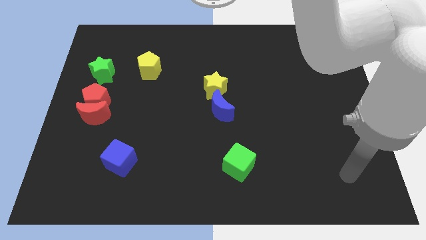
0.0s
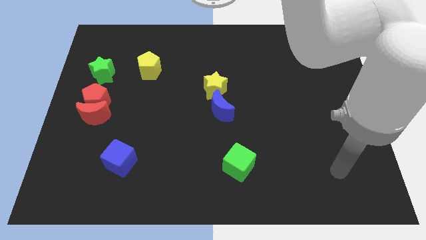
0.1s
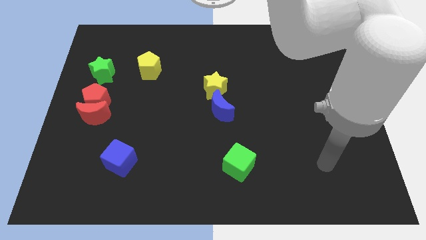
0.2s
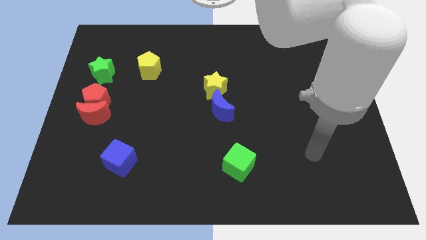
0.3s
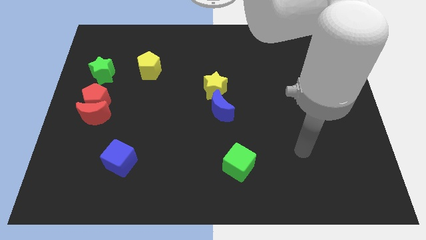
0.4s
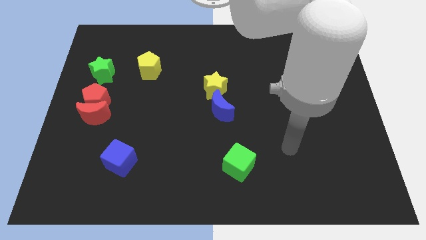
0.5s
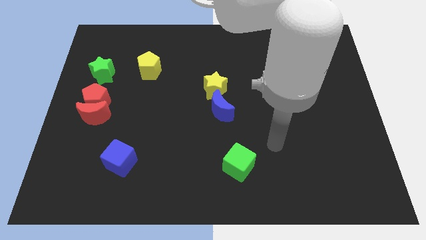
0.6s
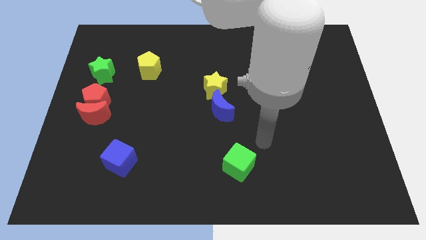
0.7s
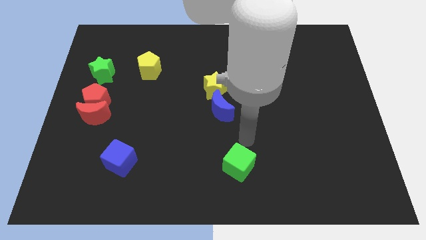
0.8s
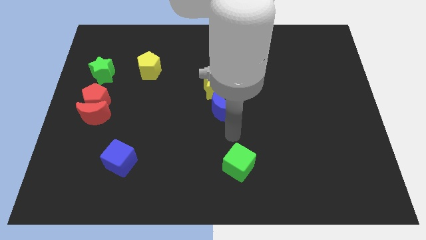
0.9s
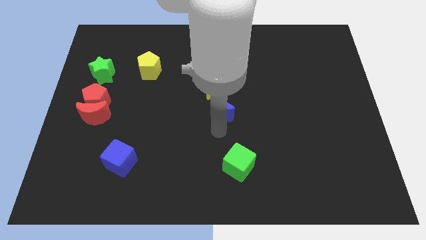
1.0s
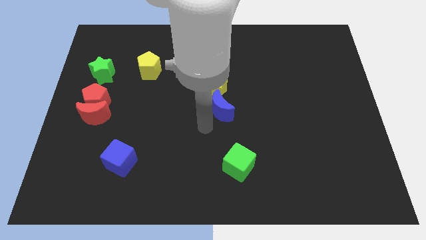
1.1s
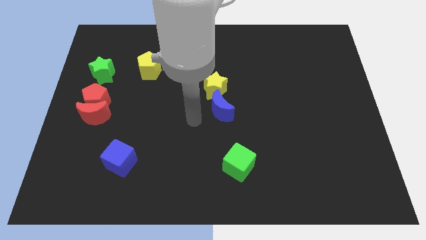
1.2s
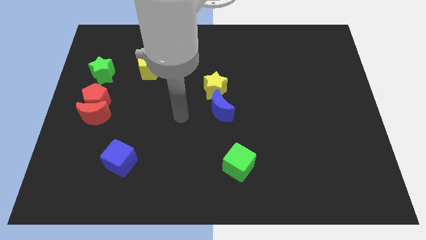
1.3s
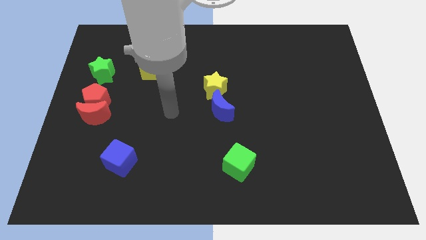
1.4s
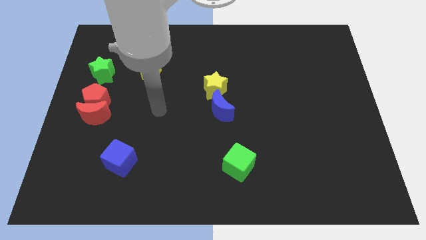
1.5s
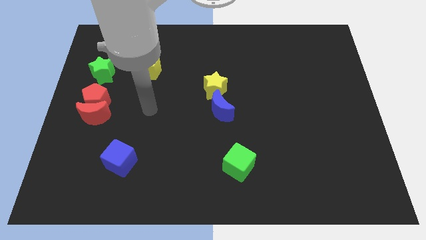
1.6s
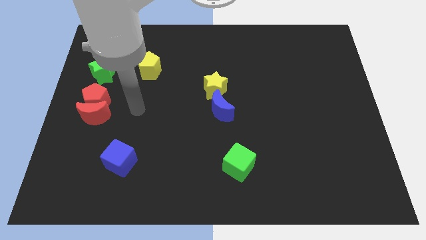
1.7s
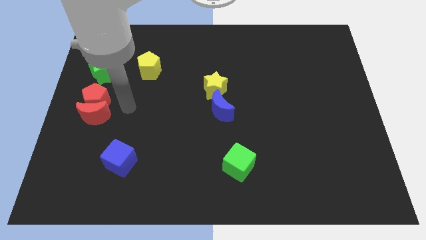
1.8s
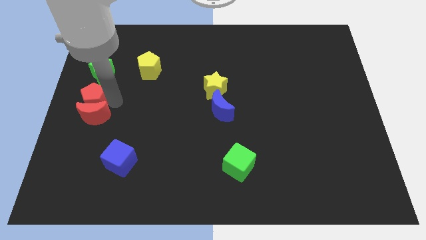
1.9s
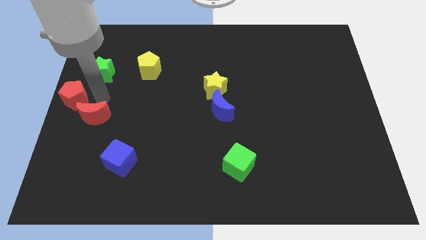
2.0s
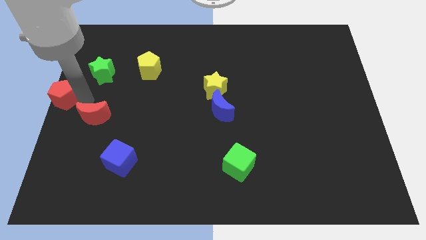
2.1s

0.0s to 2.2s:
separate the red moon from the red pentagon

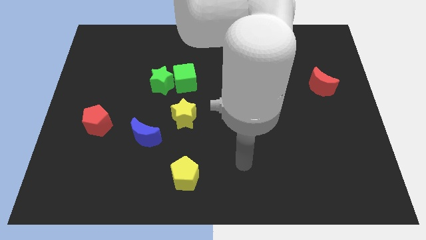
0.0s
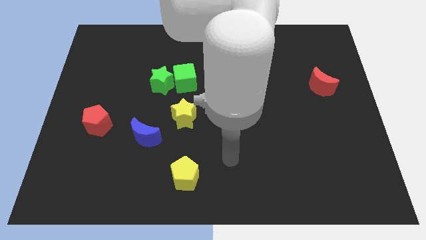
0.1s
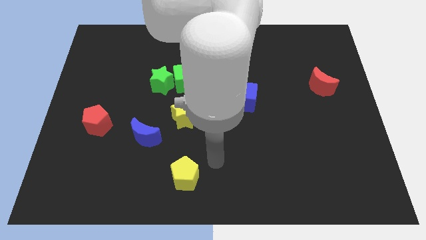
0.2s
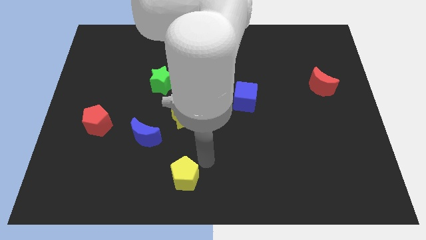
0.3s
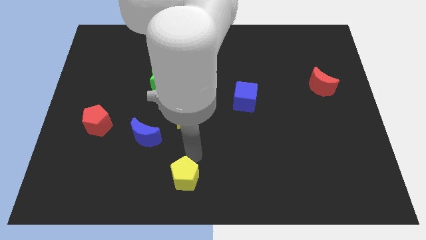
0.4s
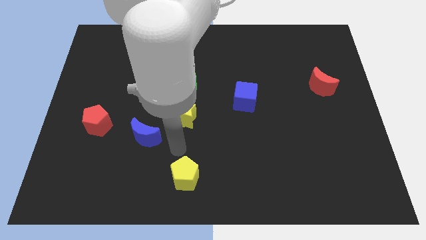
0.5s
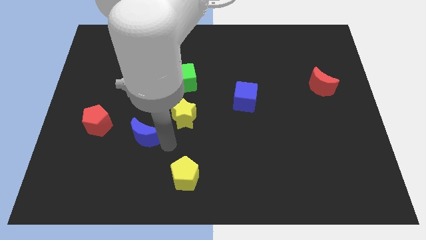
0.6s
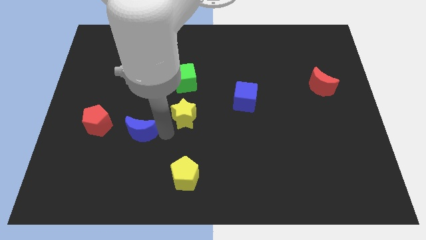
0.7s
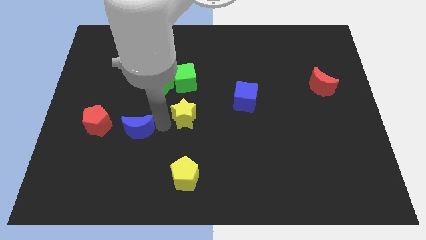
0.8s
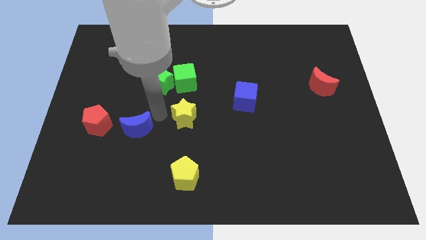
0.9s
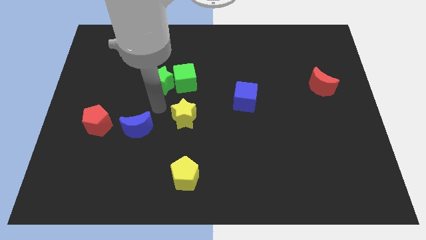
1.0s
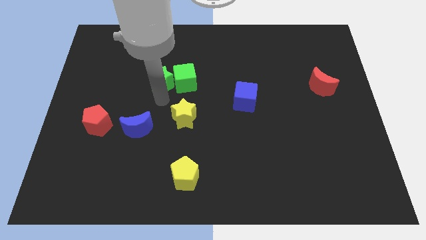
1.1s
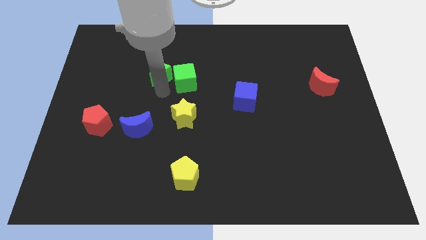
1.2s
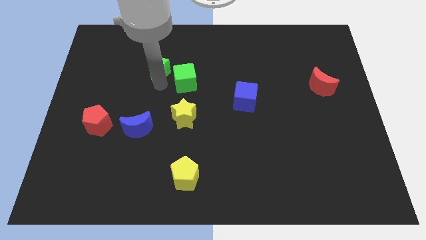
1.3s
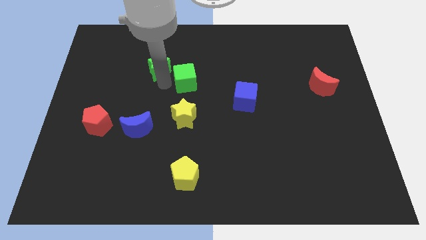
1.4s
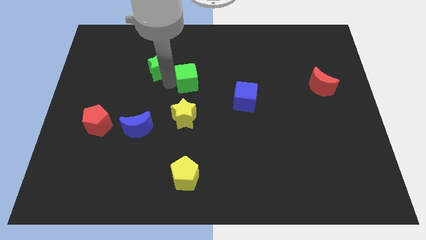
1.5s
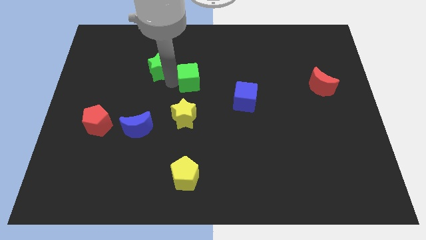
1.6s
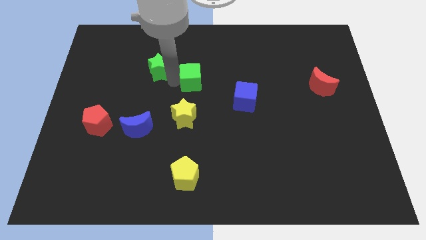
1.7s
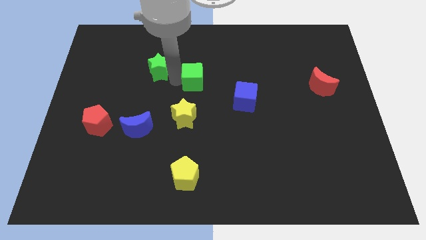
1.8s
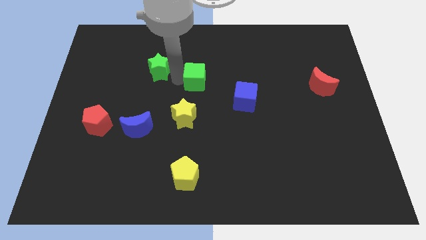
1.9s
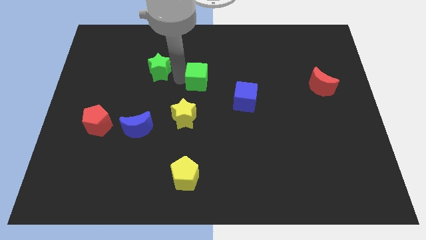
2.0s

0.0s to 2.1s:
move the green cube away from the green star

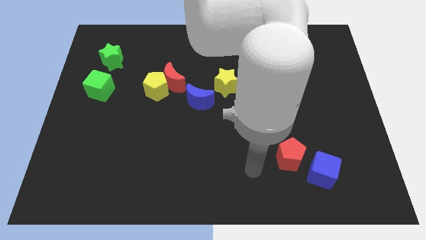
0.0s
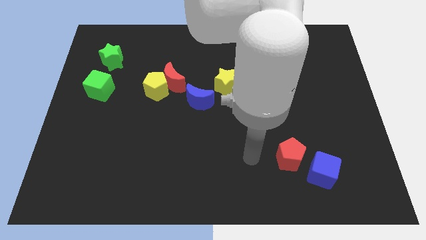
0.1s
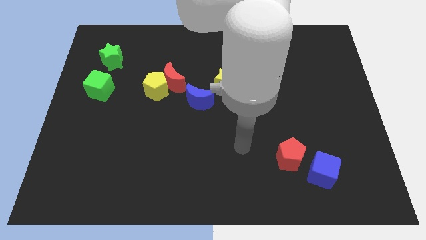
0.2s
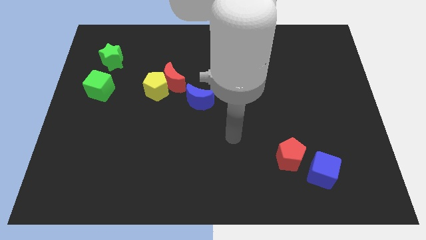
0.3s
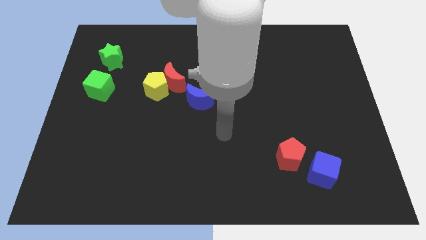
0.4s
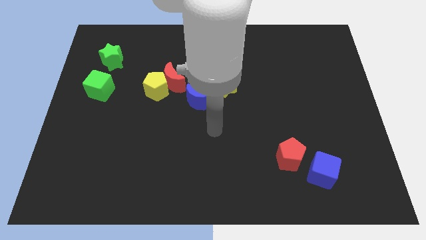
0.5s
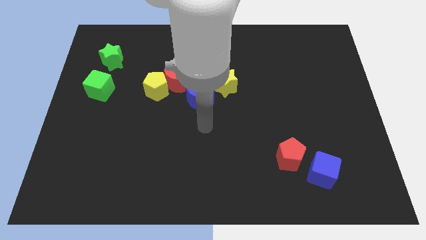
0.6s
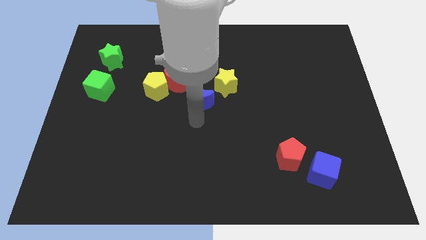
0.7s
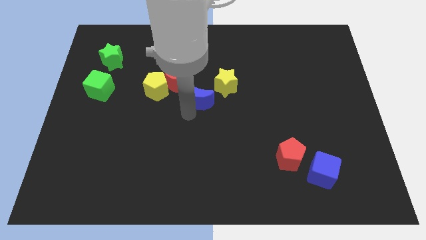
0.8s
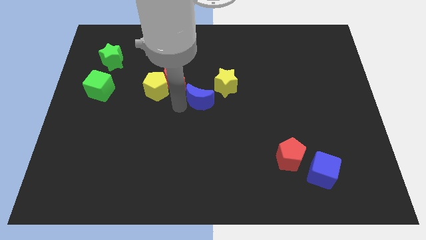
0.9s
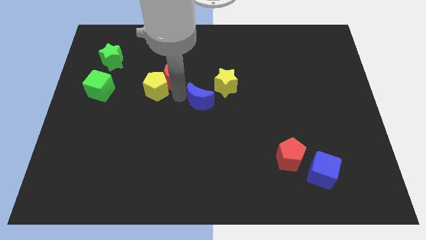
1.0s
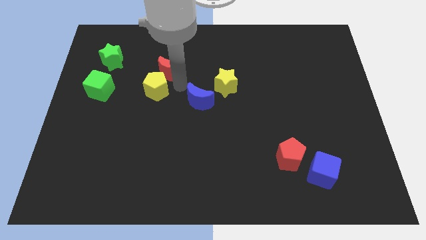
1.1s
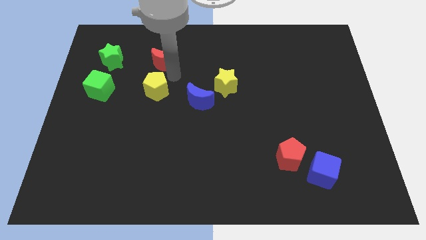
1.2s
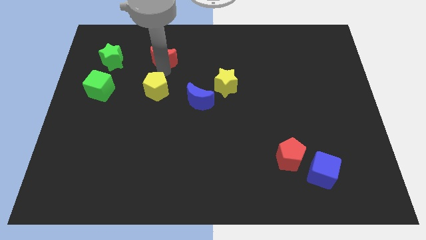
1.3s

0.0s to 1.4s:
pull the yellow pentagon apart from the red moon

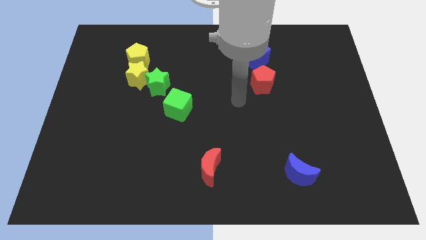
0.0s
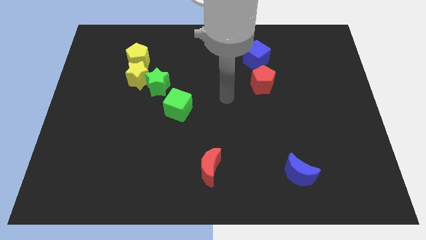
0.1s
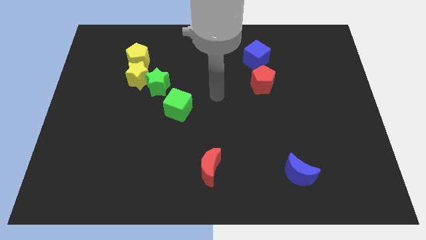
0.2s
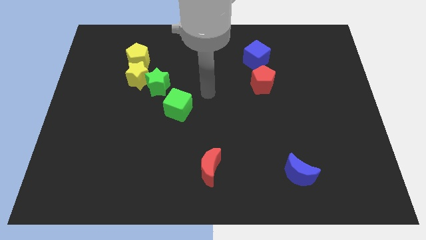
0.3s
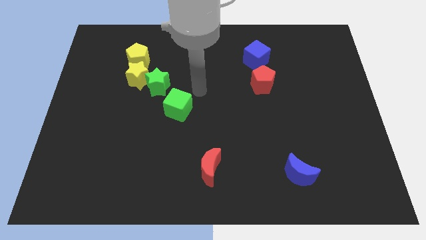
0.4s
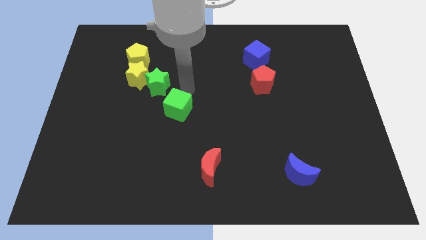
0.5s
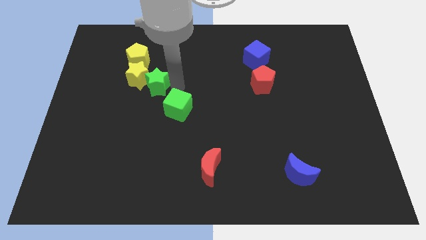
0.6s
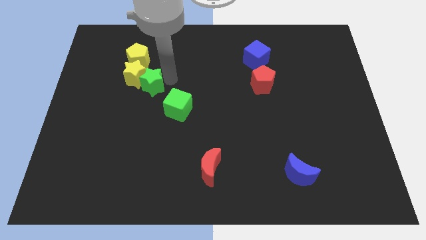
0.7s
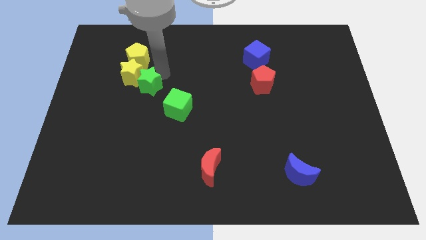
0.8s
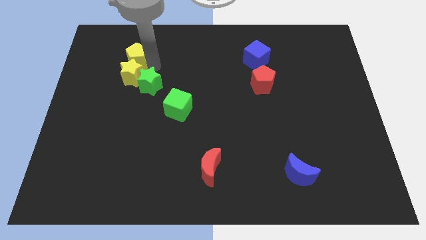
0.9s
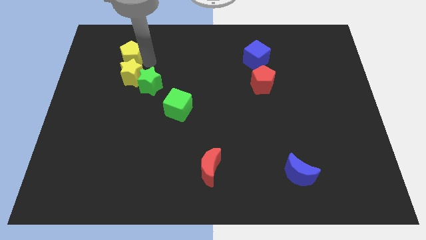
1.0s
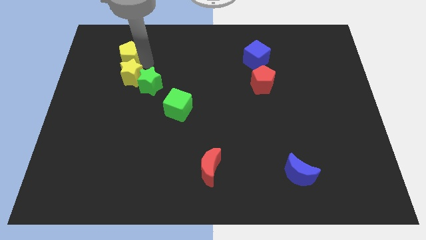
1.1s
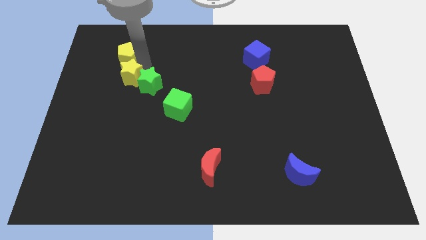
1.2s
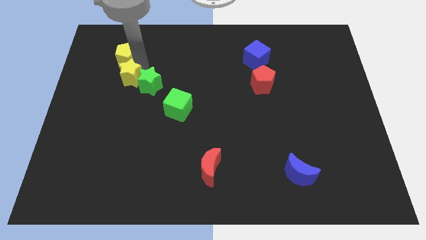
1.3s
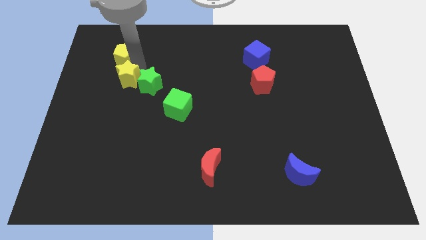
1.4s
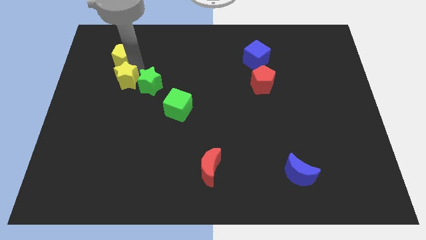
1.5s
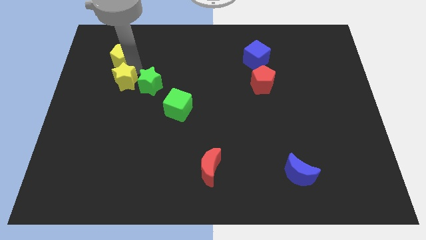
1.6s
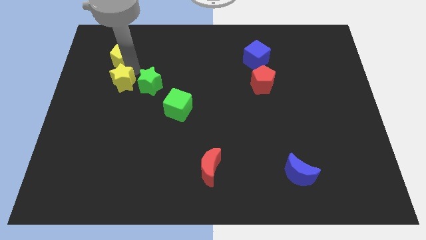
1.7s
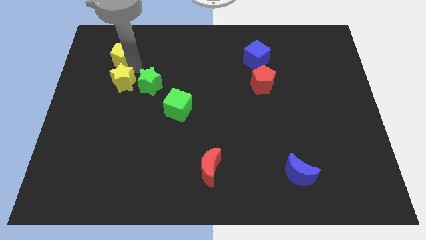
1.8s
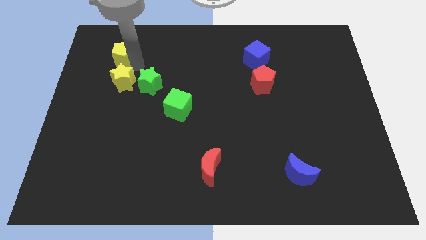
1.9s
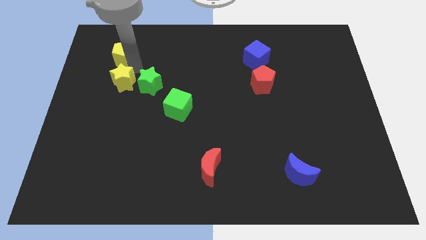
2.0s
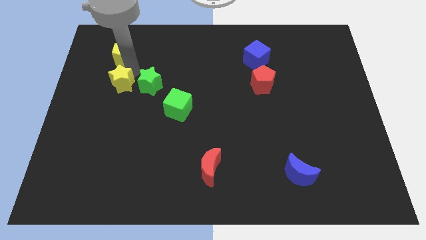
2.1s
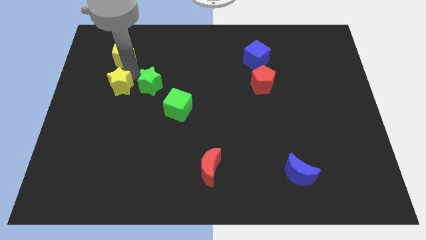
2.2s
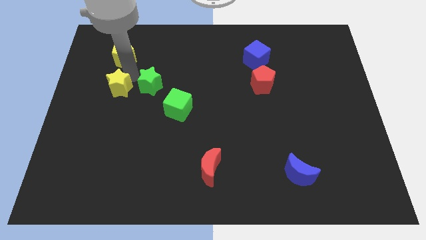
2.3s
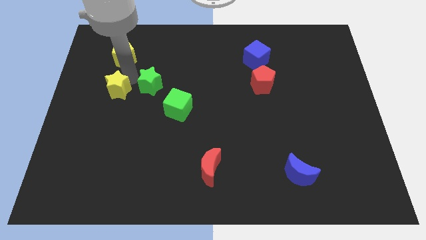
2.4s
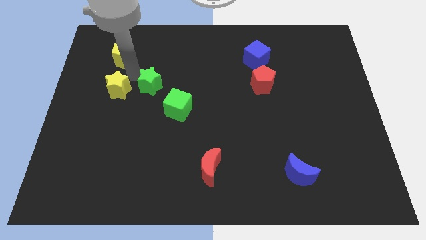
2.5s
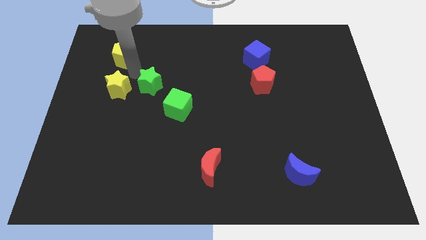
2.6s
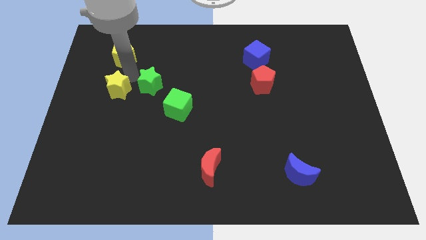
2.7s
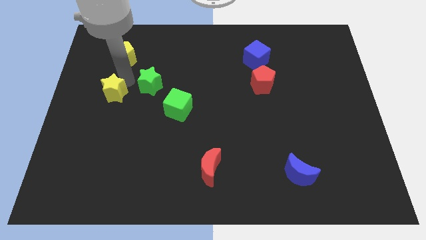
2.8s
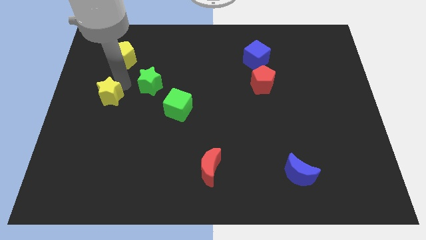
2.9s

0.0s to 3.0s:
move the yellow star away from the green star and yellow pentagon

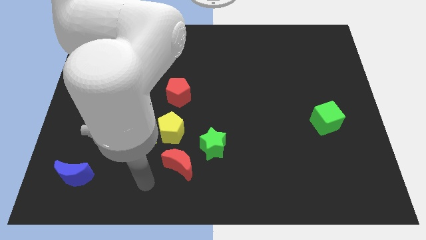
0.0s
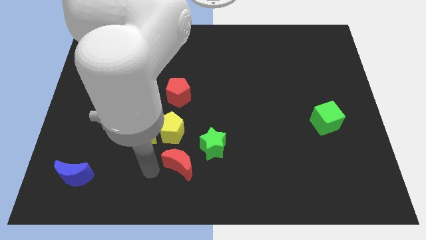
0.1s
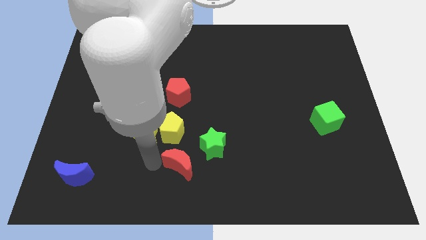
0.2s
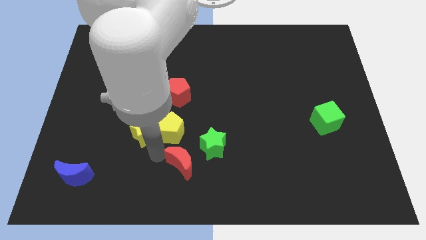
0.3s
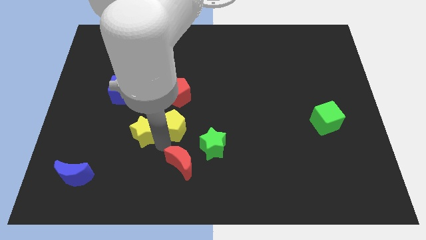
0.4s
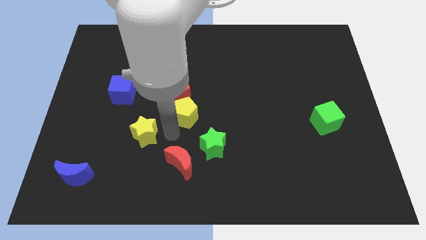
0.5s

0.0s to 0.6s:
pull the yellow star apart from the yellow pentagon
